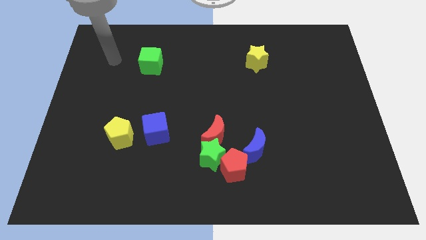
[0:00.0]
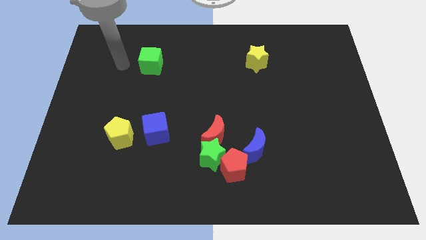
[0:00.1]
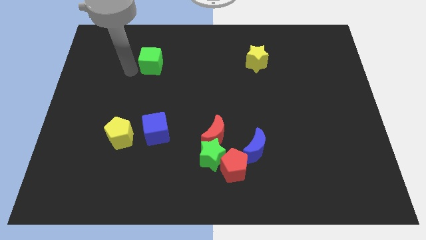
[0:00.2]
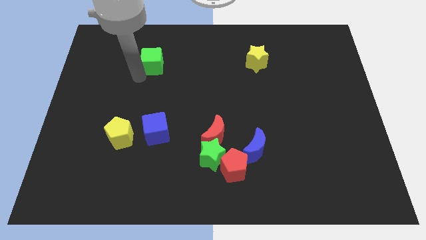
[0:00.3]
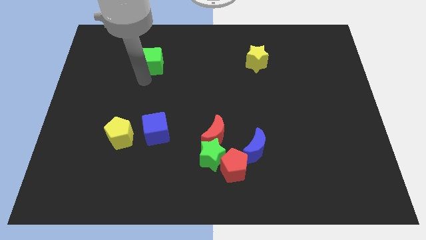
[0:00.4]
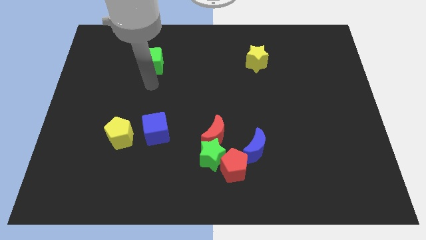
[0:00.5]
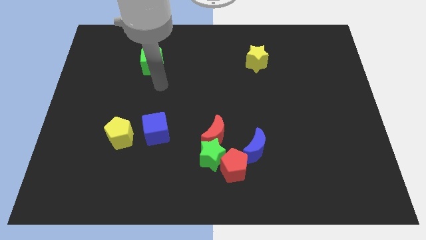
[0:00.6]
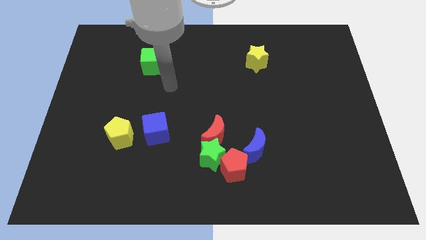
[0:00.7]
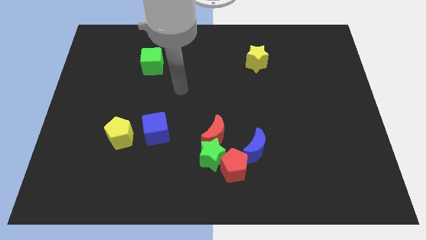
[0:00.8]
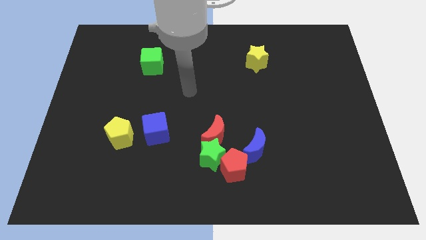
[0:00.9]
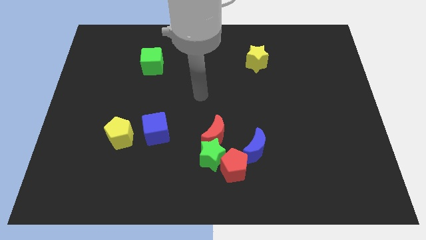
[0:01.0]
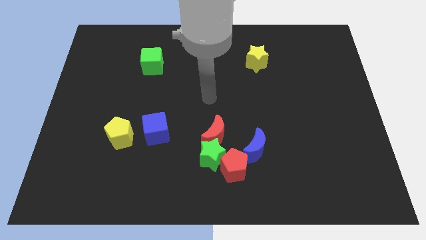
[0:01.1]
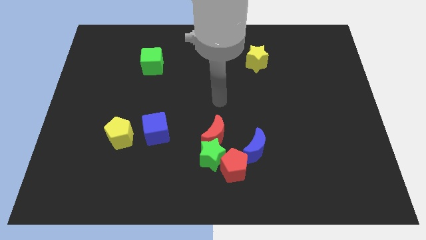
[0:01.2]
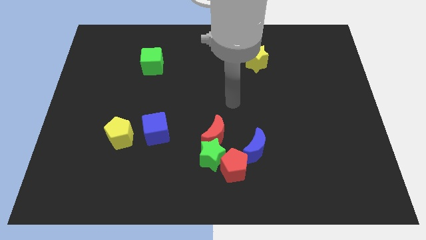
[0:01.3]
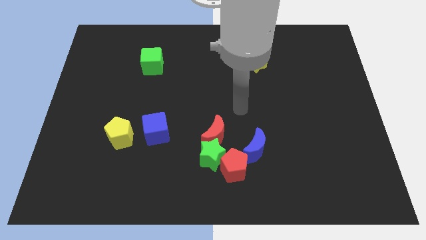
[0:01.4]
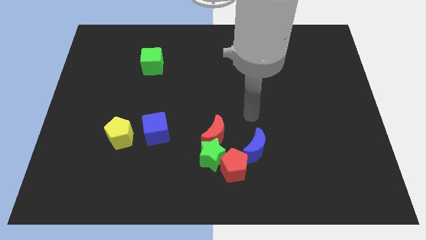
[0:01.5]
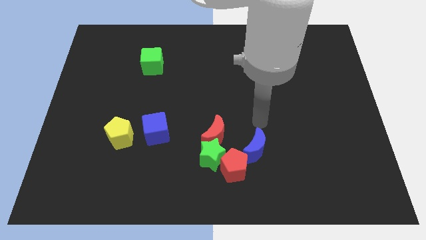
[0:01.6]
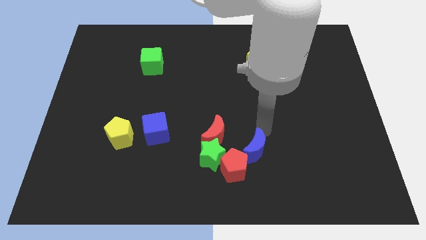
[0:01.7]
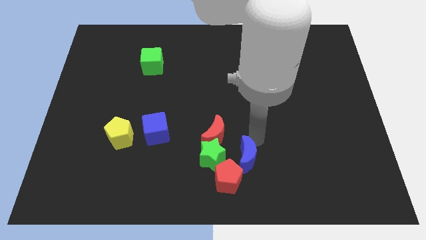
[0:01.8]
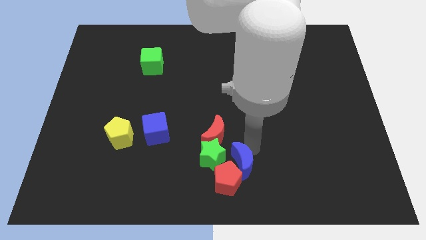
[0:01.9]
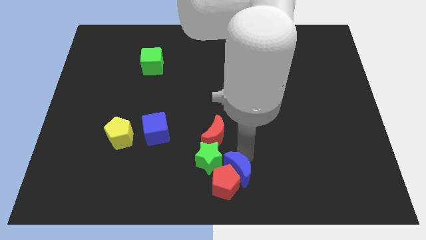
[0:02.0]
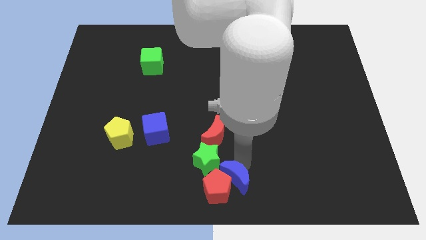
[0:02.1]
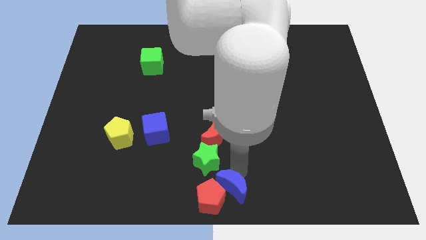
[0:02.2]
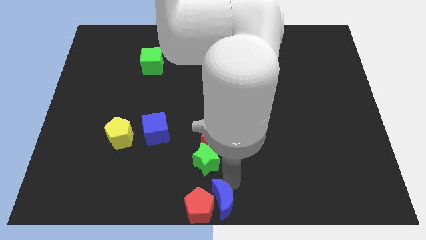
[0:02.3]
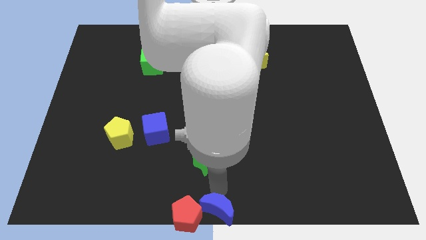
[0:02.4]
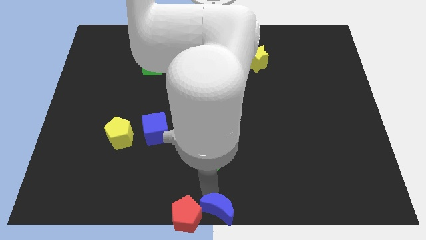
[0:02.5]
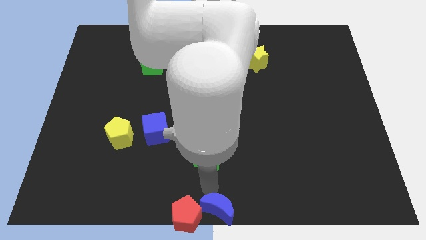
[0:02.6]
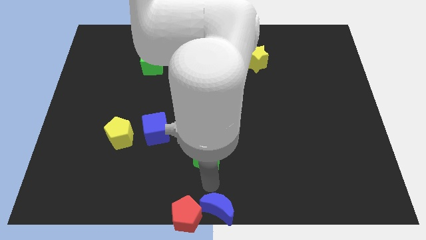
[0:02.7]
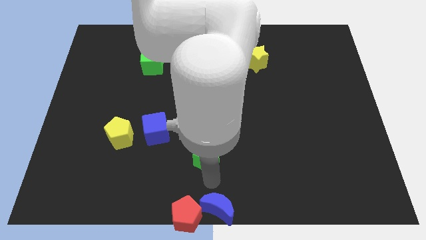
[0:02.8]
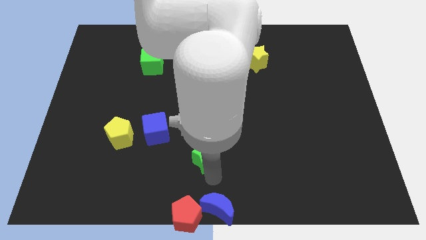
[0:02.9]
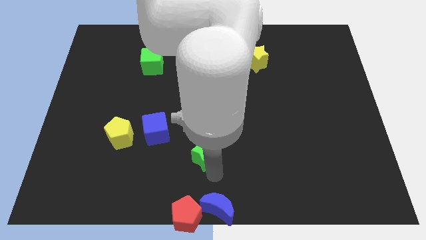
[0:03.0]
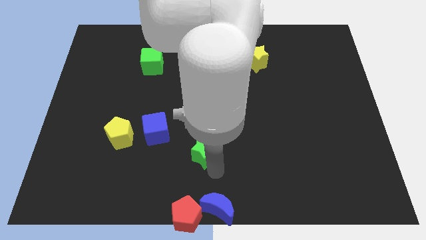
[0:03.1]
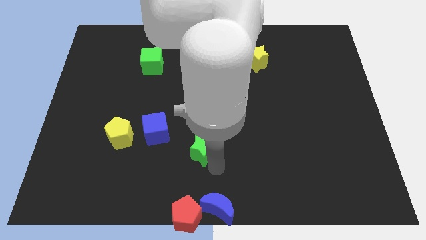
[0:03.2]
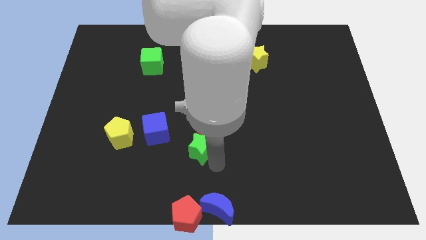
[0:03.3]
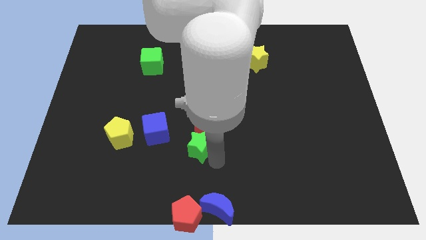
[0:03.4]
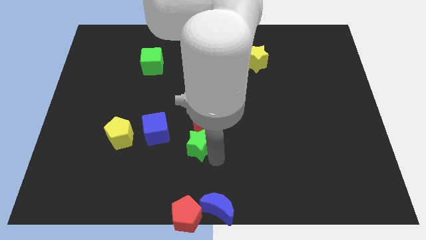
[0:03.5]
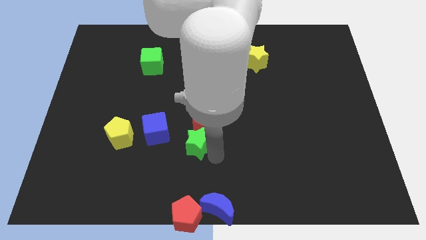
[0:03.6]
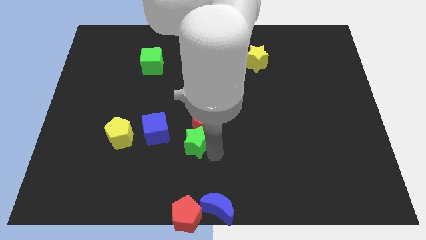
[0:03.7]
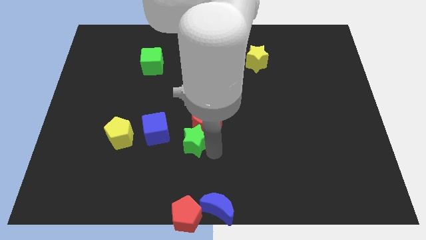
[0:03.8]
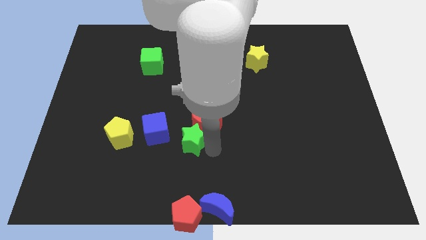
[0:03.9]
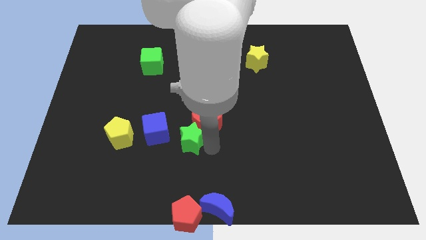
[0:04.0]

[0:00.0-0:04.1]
pull the green star apart from the group

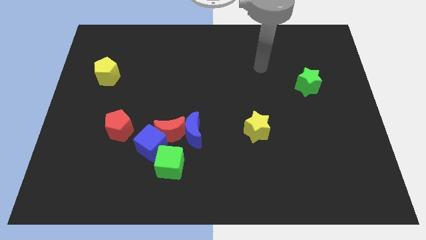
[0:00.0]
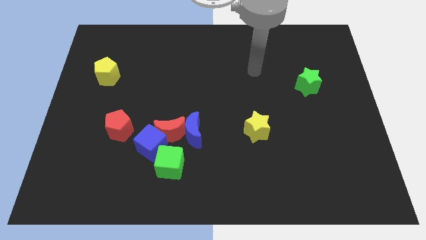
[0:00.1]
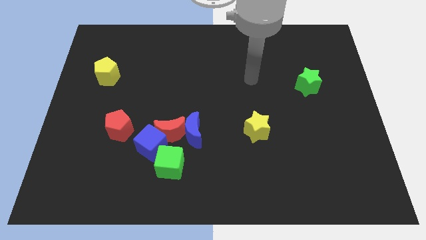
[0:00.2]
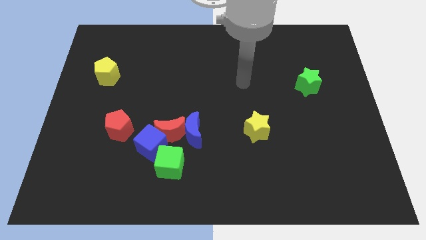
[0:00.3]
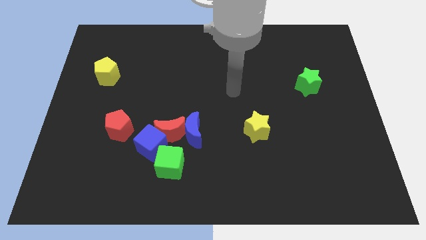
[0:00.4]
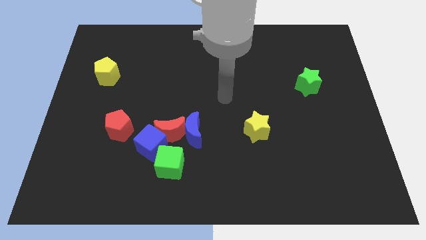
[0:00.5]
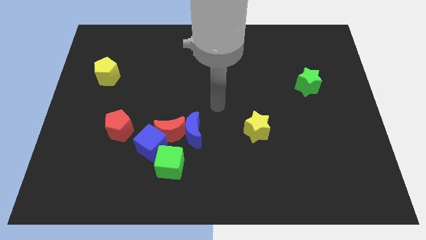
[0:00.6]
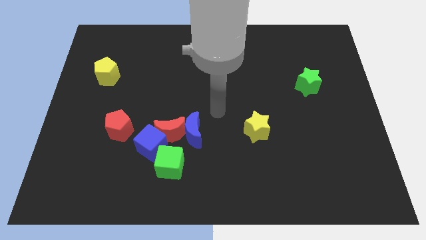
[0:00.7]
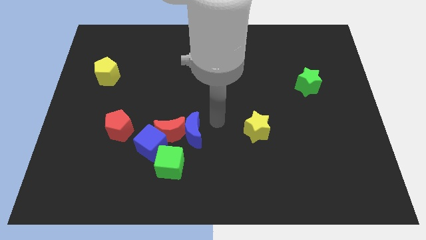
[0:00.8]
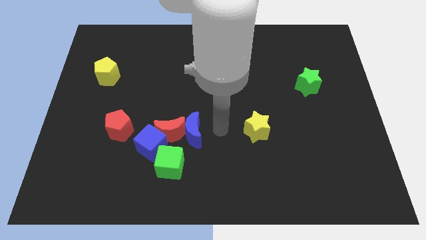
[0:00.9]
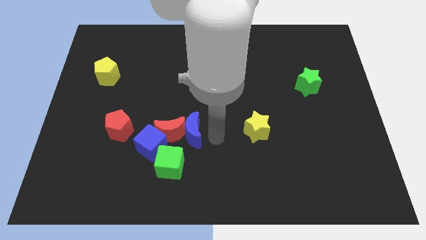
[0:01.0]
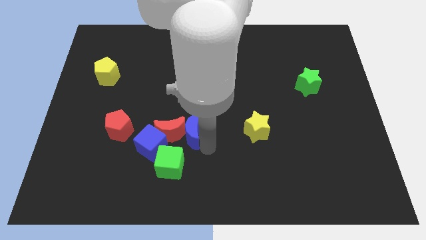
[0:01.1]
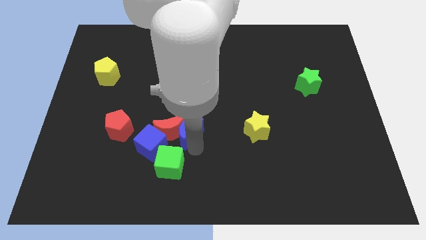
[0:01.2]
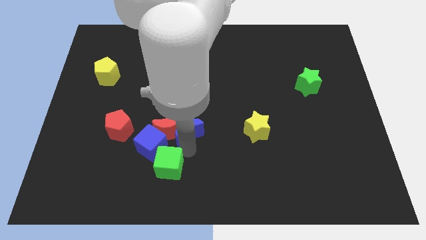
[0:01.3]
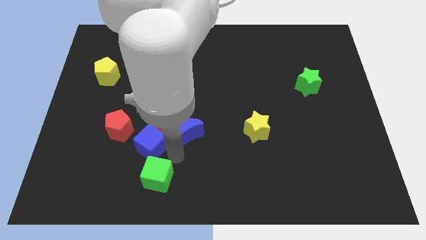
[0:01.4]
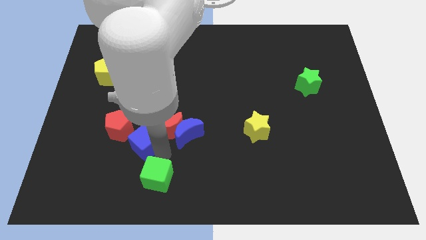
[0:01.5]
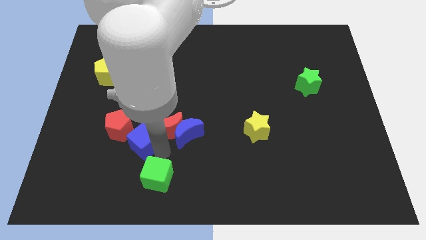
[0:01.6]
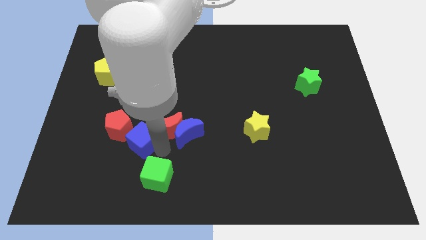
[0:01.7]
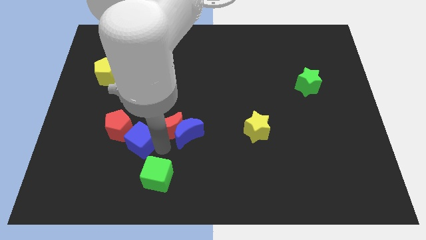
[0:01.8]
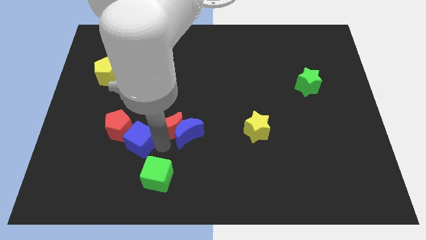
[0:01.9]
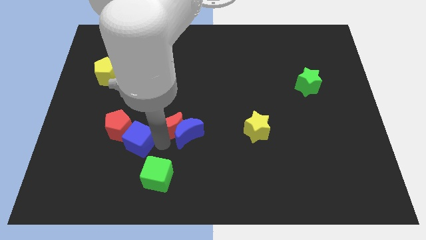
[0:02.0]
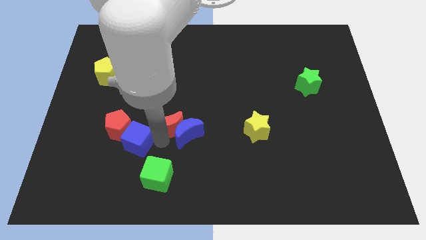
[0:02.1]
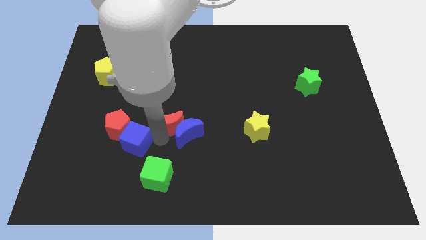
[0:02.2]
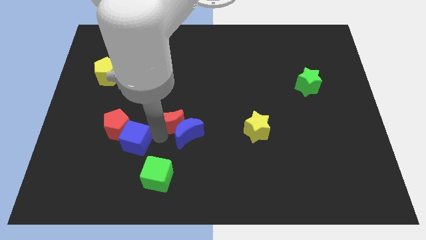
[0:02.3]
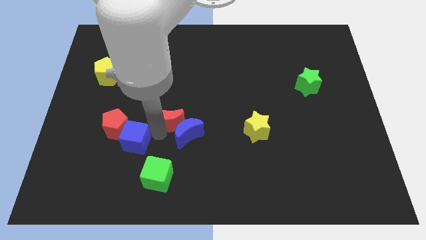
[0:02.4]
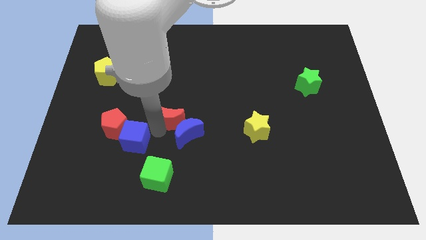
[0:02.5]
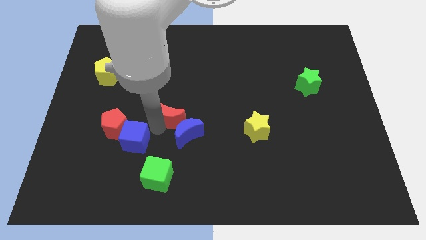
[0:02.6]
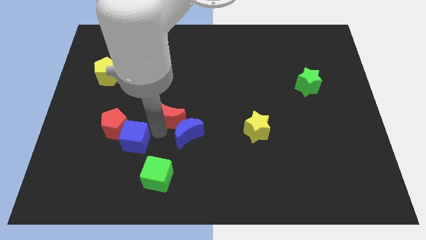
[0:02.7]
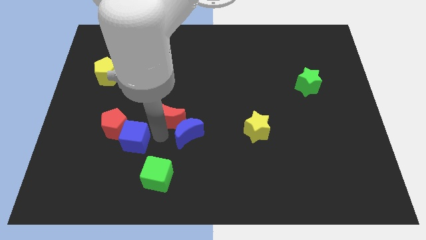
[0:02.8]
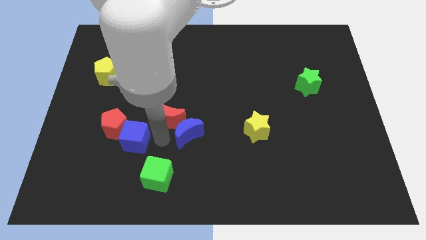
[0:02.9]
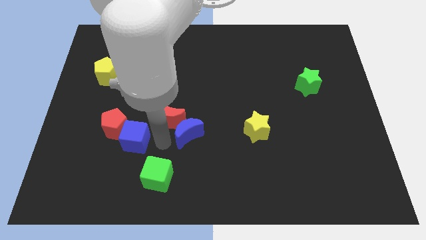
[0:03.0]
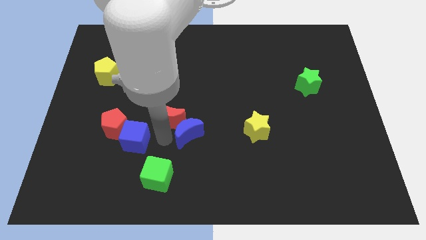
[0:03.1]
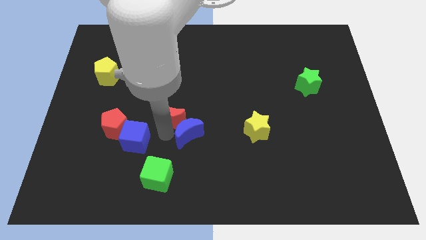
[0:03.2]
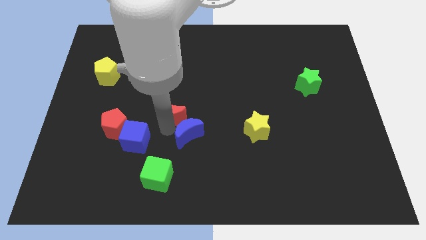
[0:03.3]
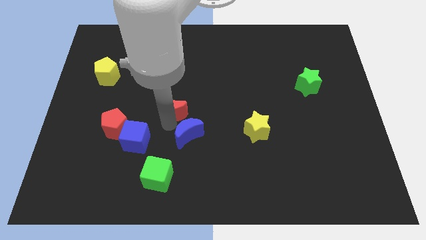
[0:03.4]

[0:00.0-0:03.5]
separate the red moon from the blue moon, blue cube, and green cube

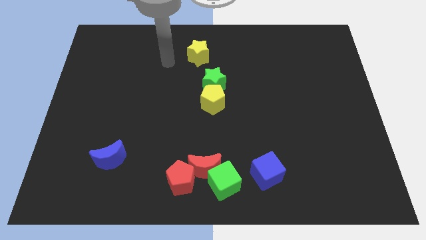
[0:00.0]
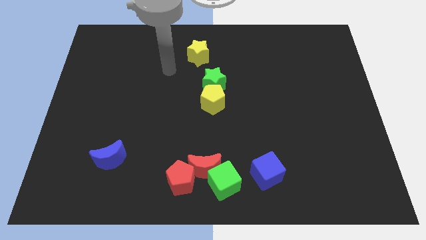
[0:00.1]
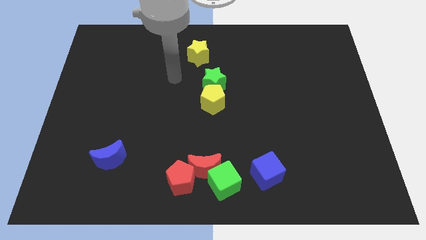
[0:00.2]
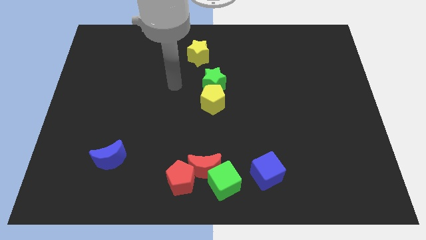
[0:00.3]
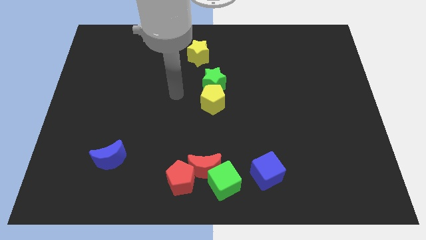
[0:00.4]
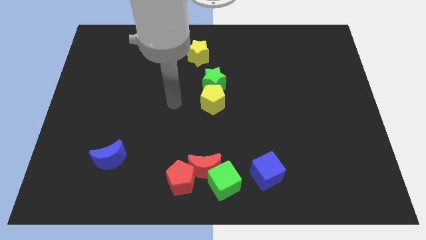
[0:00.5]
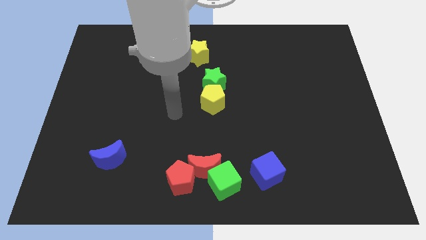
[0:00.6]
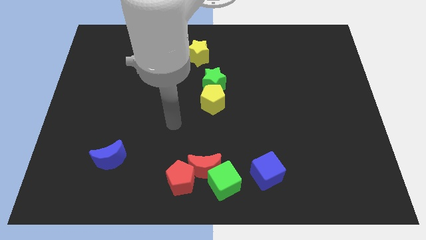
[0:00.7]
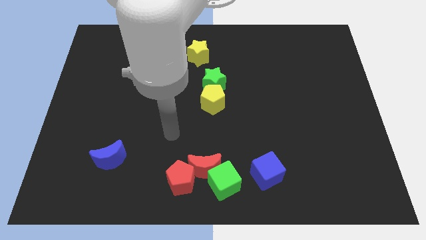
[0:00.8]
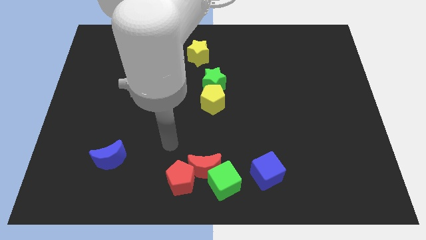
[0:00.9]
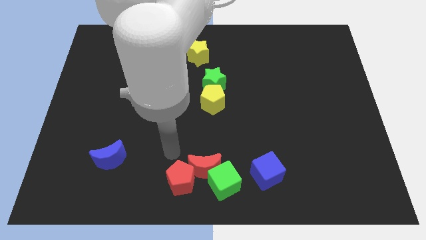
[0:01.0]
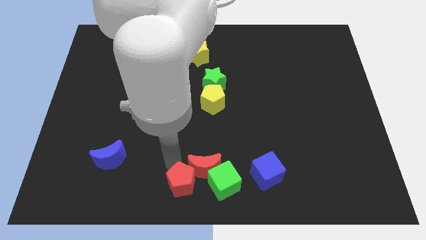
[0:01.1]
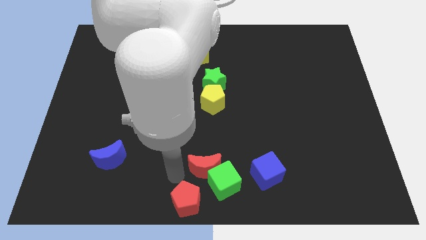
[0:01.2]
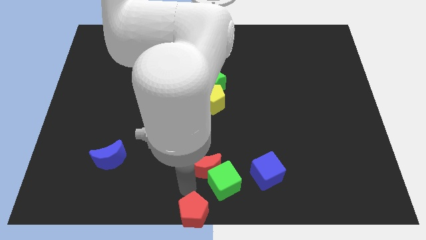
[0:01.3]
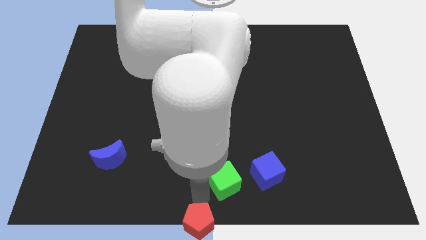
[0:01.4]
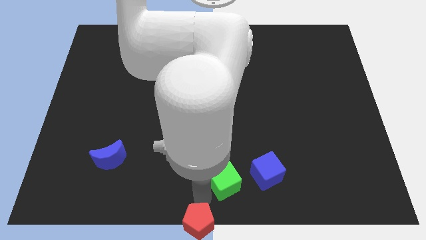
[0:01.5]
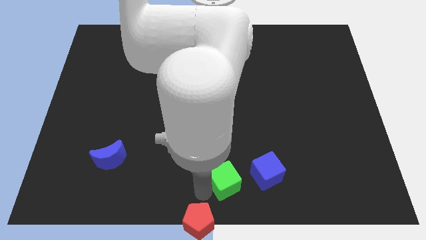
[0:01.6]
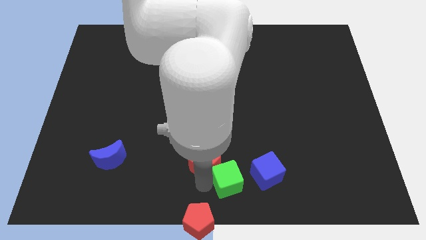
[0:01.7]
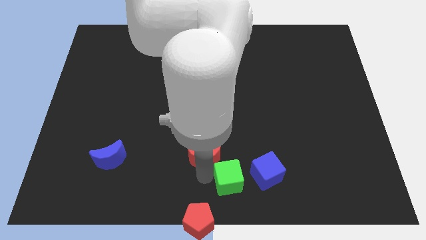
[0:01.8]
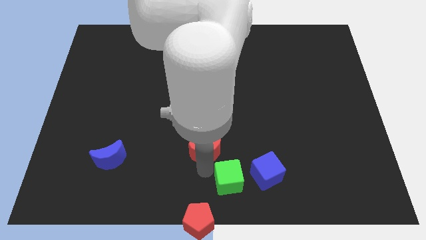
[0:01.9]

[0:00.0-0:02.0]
pull the red moon apart from the green cube and red pentagon
